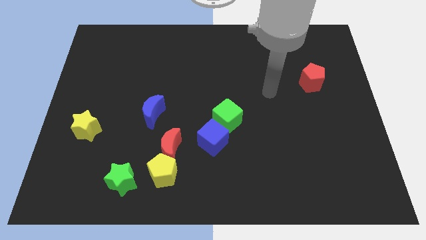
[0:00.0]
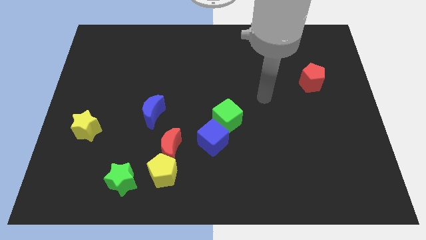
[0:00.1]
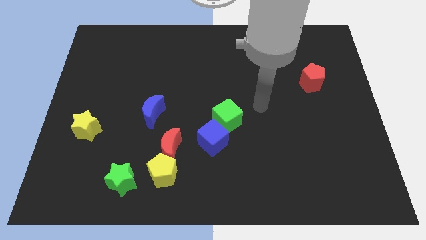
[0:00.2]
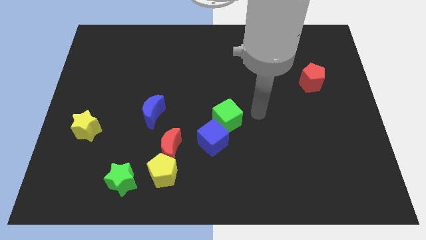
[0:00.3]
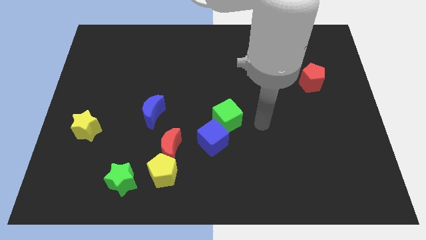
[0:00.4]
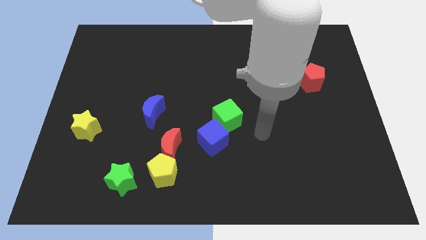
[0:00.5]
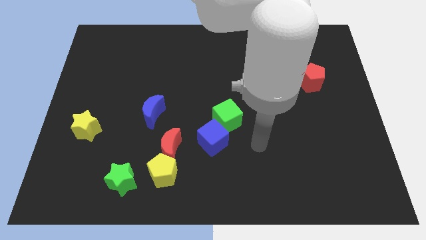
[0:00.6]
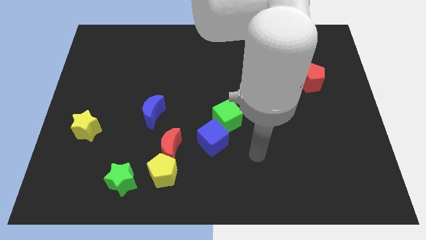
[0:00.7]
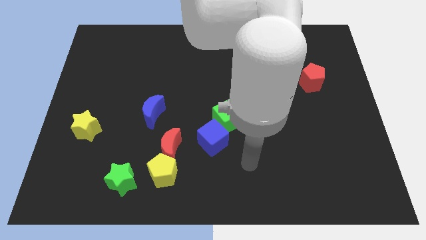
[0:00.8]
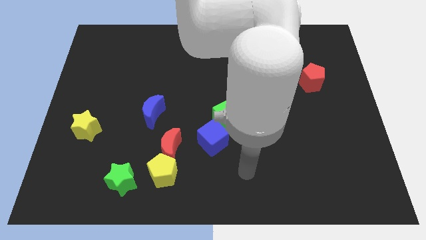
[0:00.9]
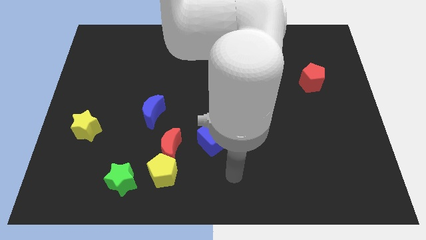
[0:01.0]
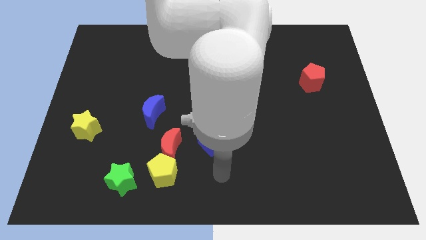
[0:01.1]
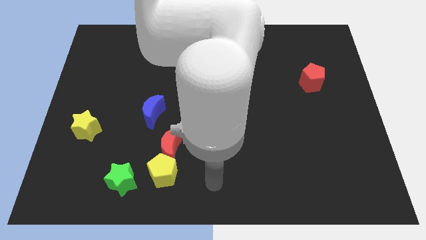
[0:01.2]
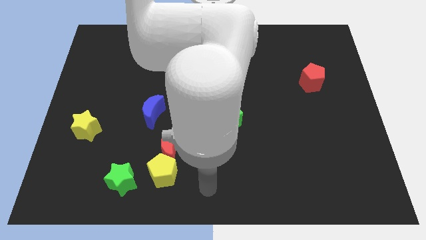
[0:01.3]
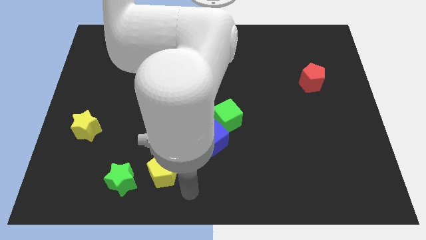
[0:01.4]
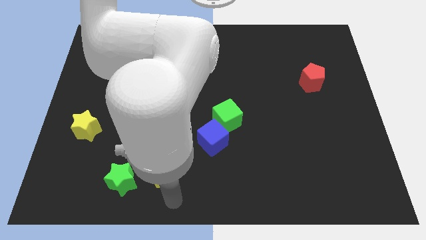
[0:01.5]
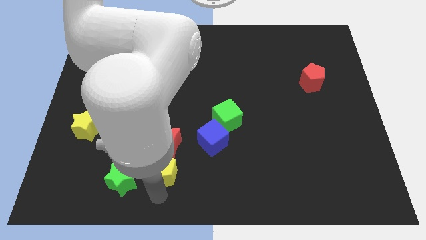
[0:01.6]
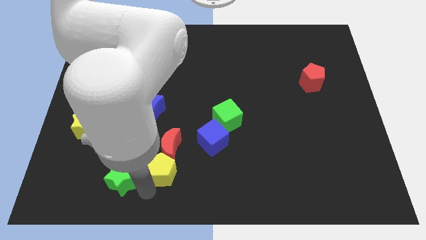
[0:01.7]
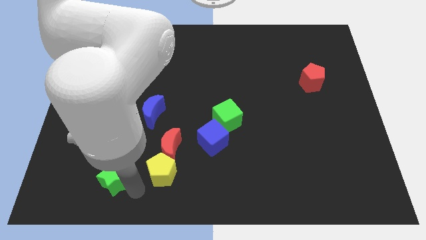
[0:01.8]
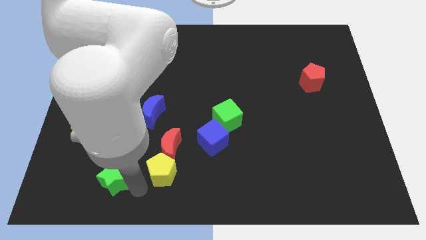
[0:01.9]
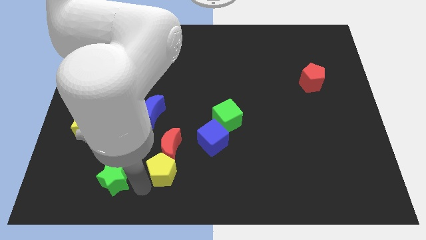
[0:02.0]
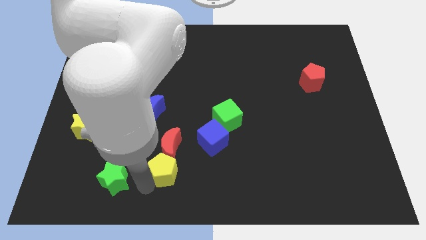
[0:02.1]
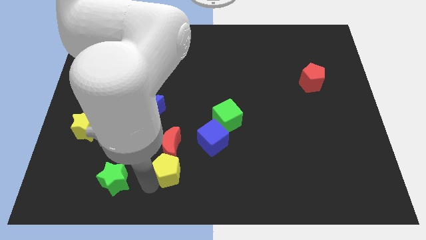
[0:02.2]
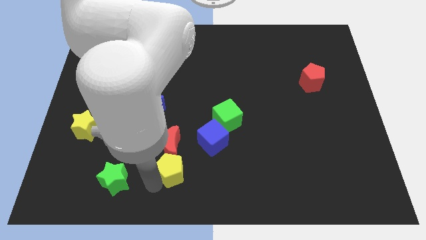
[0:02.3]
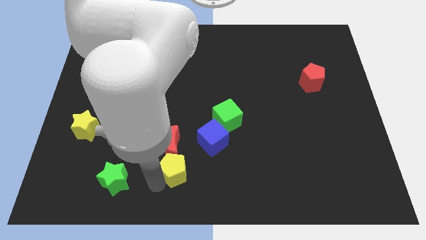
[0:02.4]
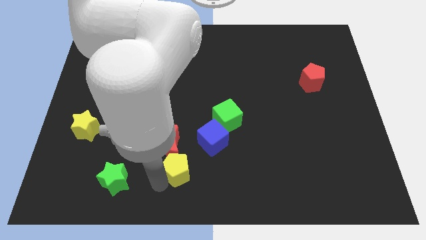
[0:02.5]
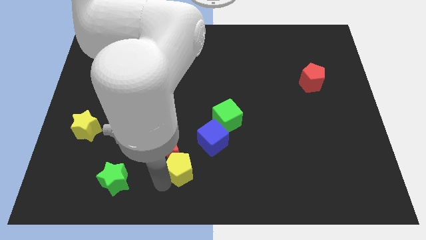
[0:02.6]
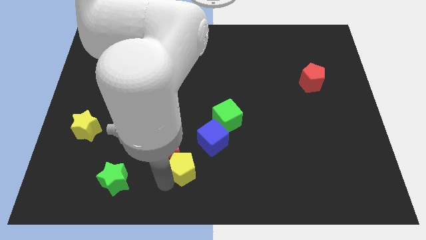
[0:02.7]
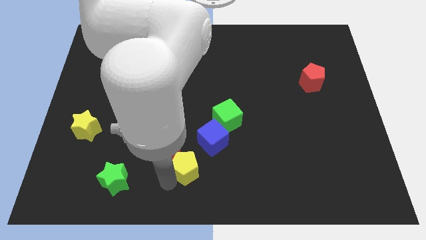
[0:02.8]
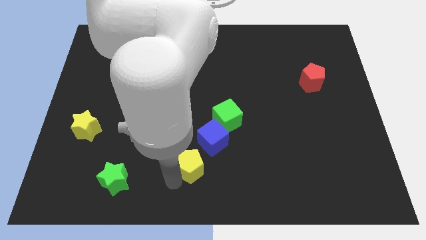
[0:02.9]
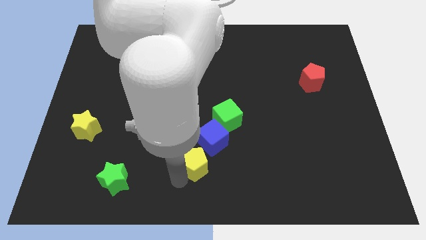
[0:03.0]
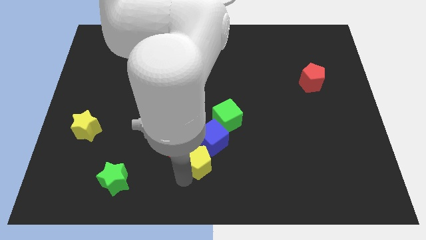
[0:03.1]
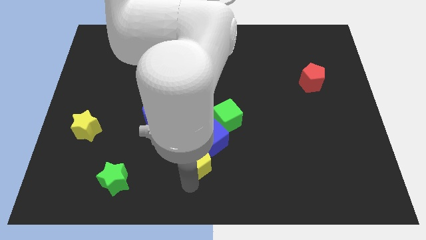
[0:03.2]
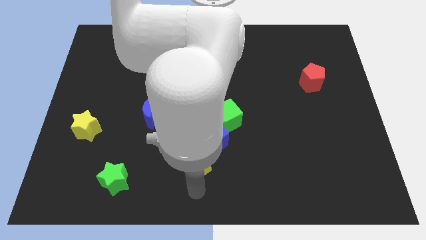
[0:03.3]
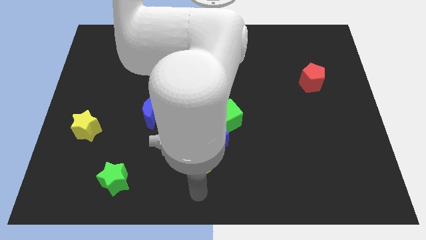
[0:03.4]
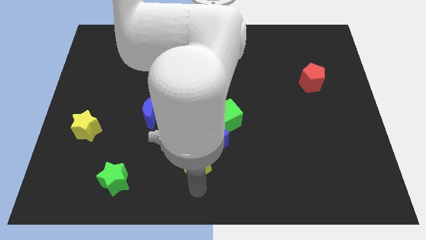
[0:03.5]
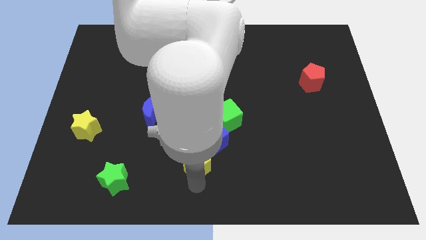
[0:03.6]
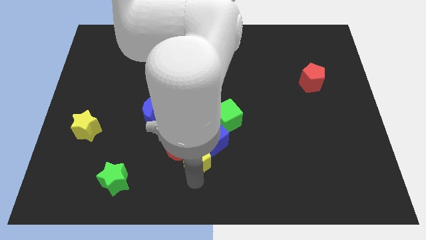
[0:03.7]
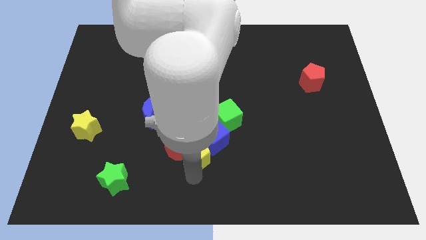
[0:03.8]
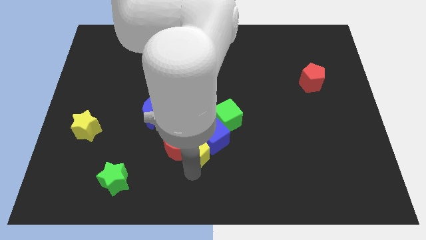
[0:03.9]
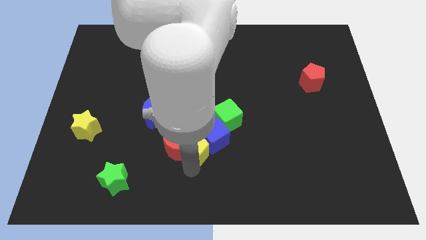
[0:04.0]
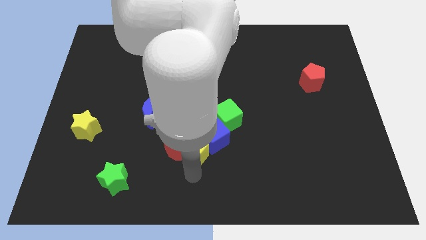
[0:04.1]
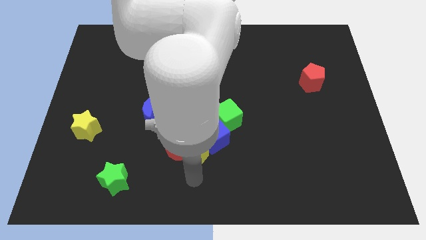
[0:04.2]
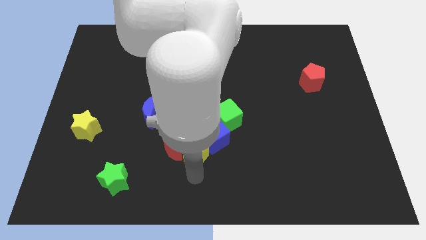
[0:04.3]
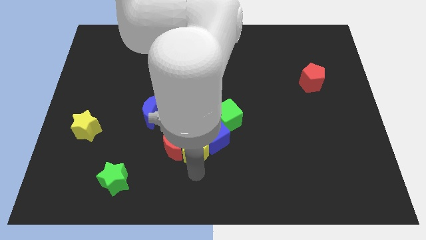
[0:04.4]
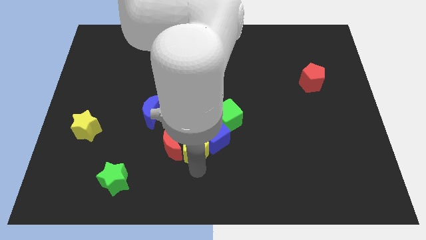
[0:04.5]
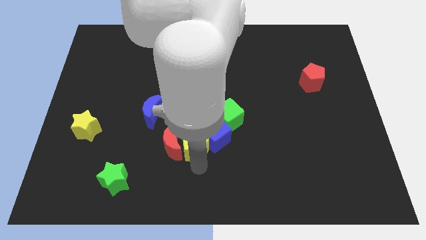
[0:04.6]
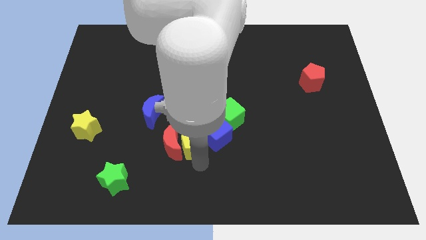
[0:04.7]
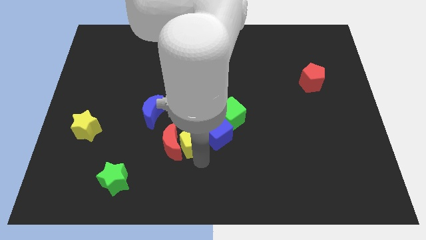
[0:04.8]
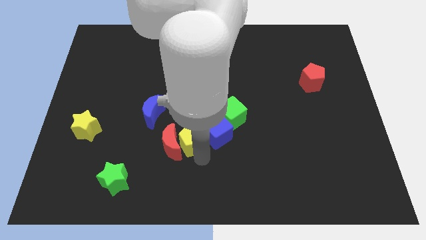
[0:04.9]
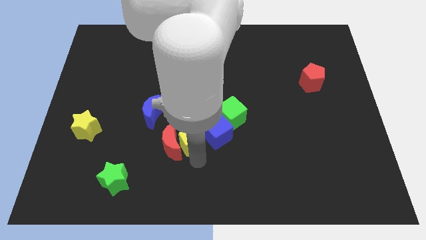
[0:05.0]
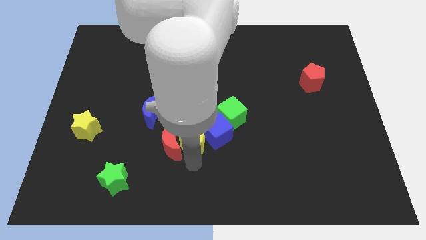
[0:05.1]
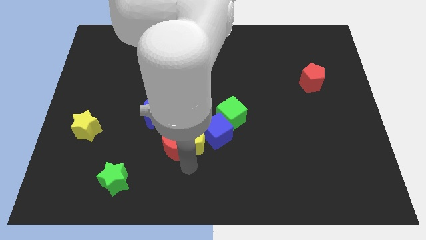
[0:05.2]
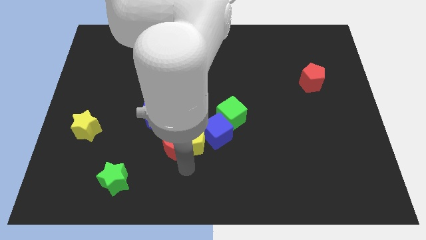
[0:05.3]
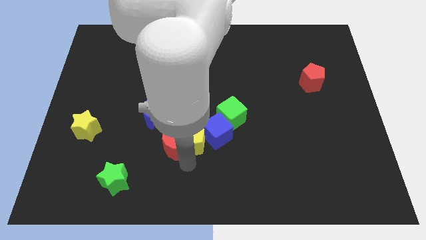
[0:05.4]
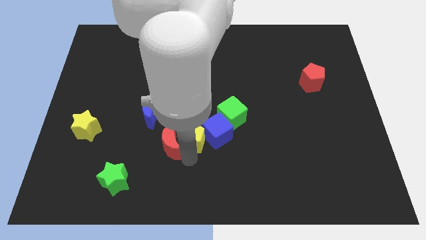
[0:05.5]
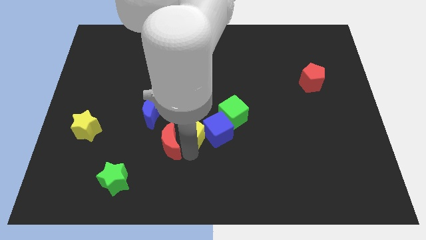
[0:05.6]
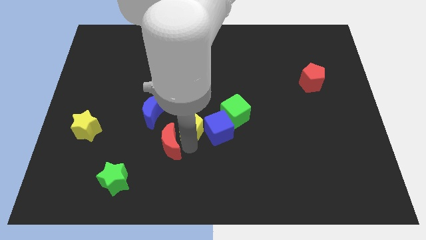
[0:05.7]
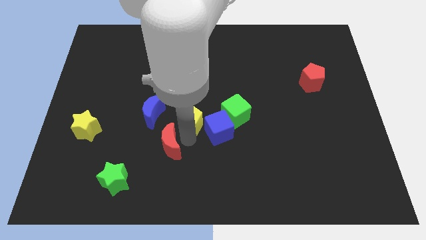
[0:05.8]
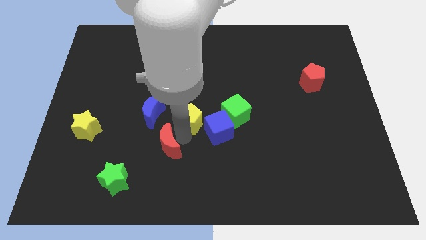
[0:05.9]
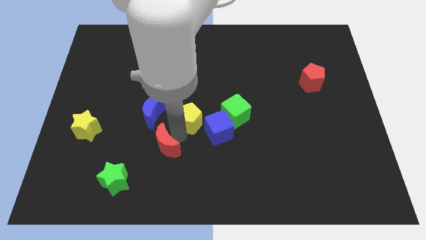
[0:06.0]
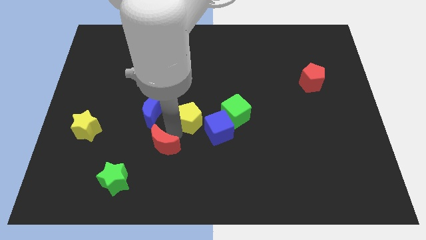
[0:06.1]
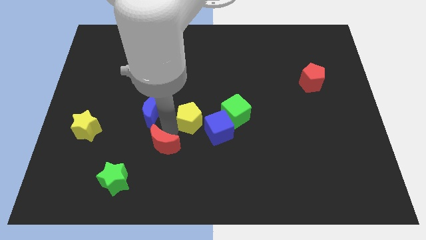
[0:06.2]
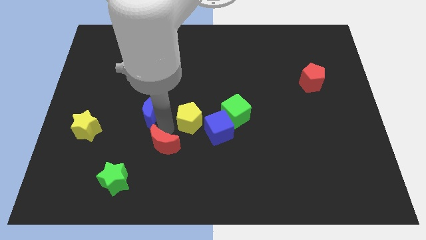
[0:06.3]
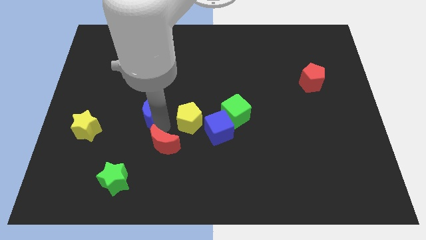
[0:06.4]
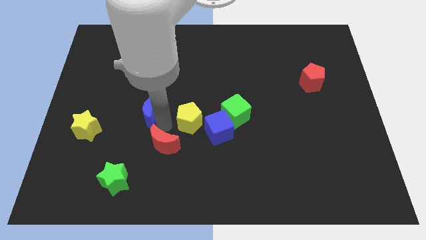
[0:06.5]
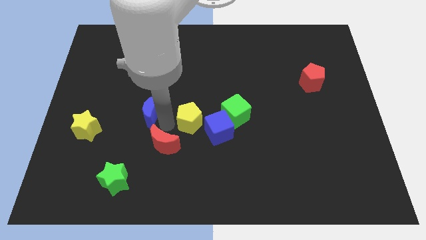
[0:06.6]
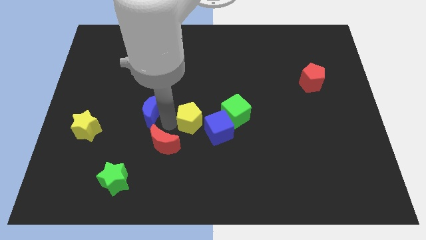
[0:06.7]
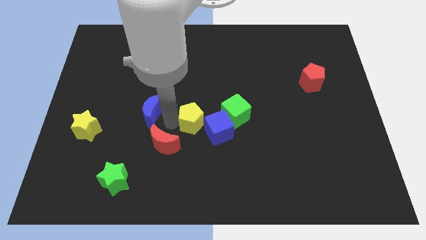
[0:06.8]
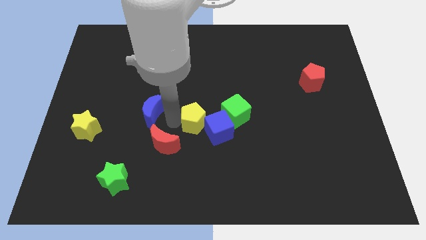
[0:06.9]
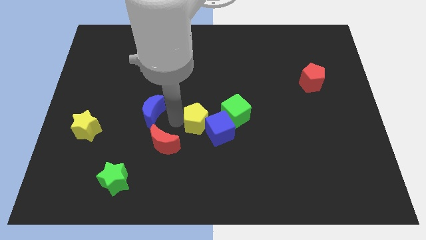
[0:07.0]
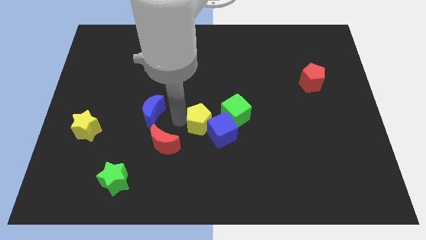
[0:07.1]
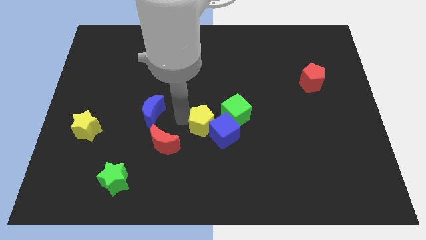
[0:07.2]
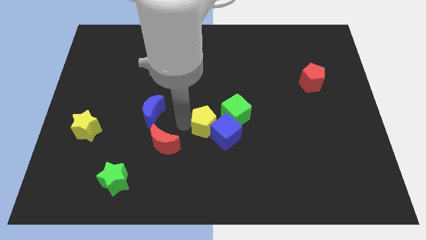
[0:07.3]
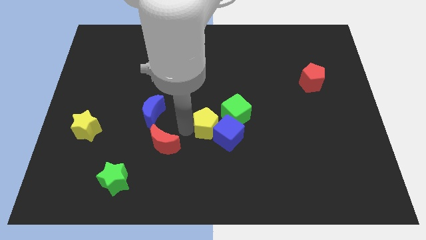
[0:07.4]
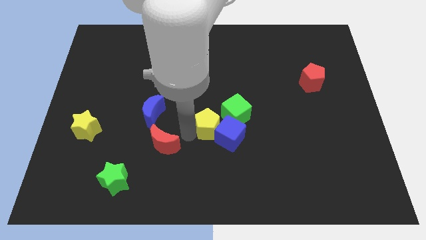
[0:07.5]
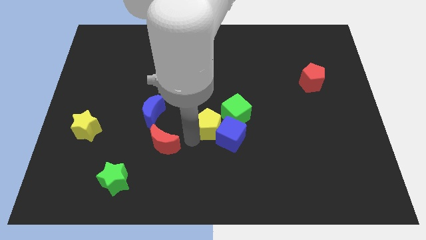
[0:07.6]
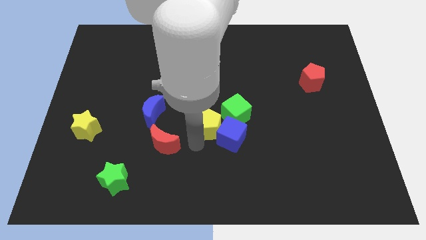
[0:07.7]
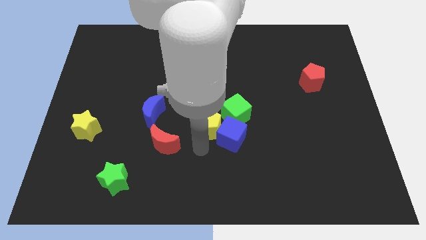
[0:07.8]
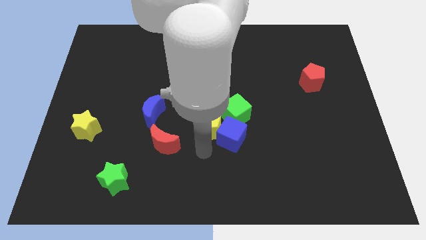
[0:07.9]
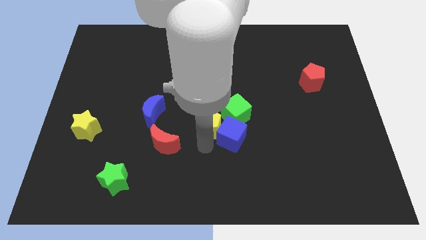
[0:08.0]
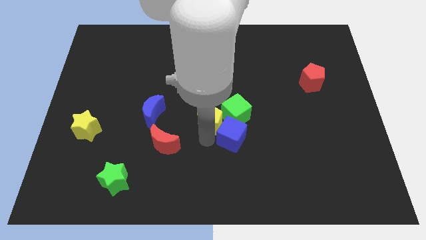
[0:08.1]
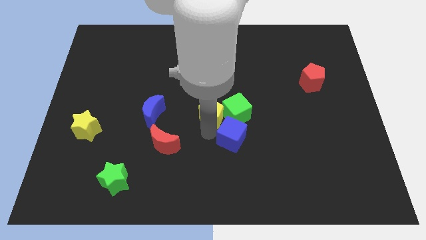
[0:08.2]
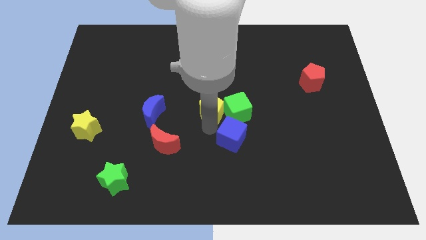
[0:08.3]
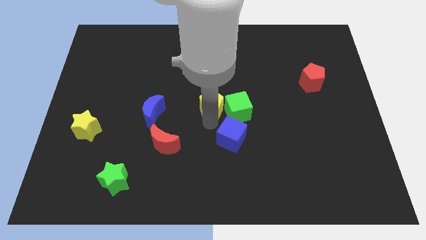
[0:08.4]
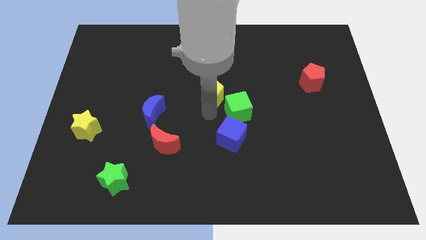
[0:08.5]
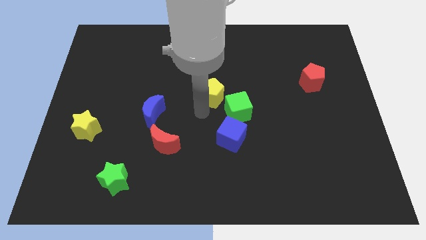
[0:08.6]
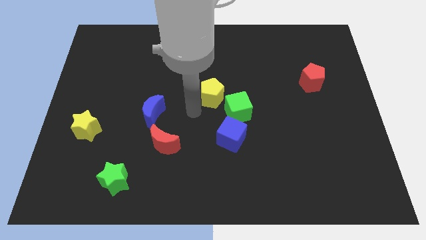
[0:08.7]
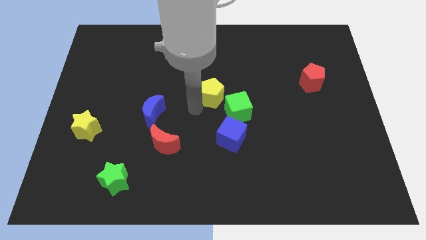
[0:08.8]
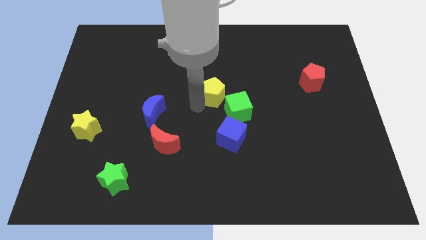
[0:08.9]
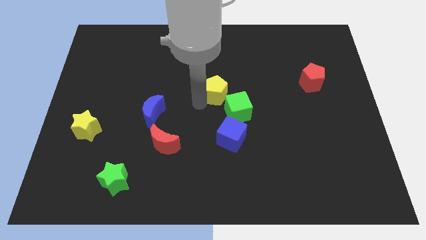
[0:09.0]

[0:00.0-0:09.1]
move the yellow pentagon to the top of the green cube
